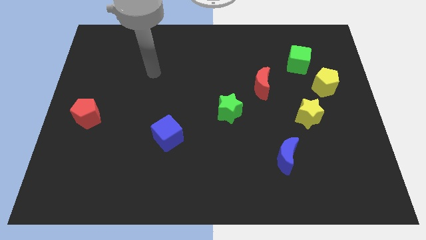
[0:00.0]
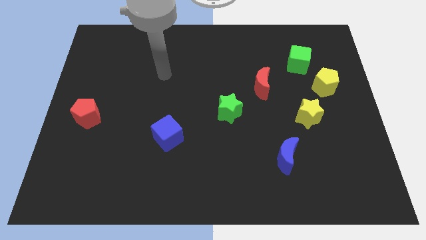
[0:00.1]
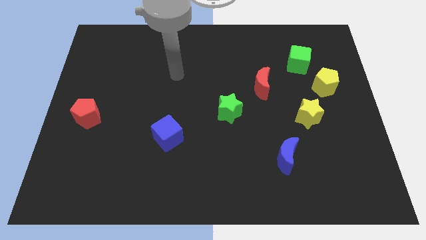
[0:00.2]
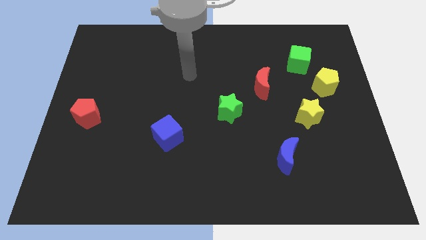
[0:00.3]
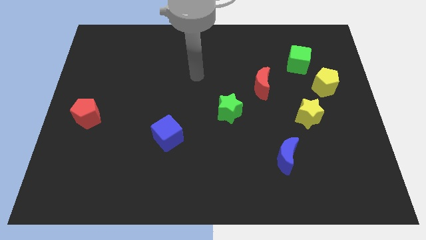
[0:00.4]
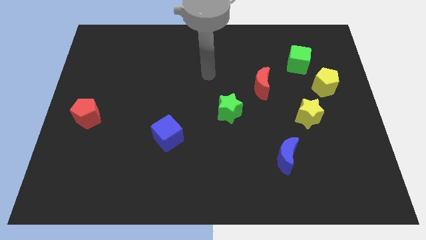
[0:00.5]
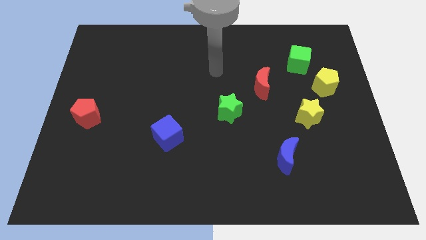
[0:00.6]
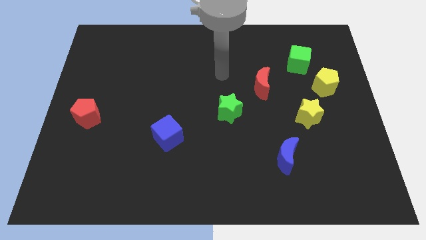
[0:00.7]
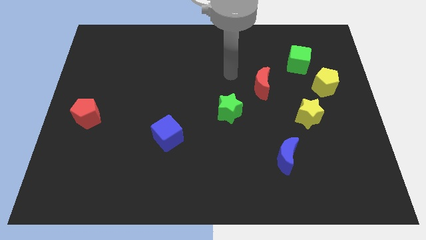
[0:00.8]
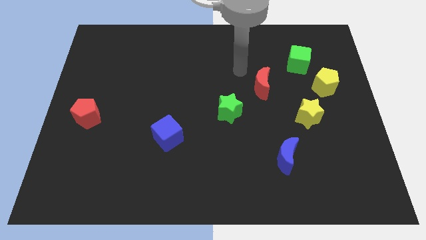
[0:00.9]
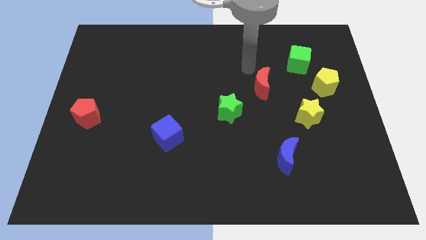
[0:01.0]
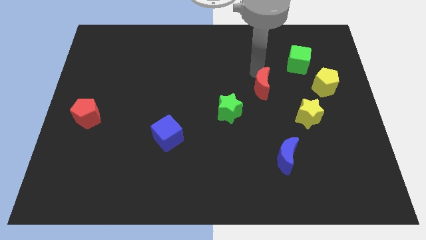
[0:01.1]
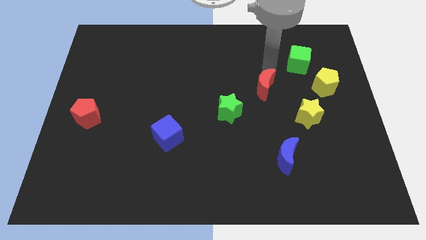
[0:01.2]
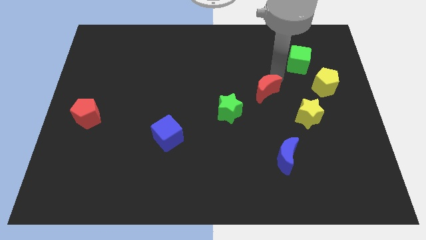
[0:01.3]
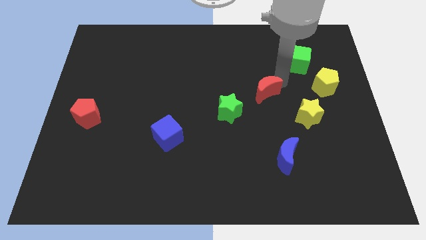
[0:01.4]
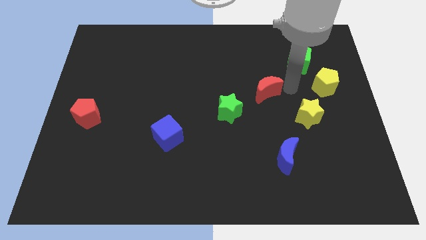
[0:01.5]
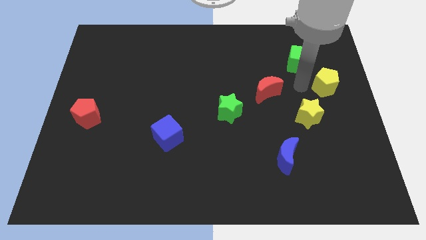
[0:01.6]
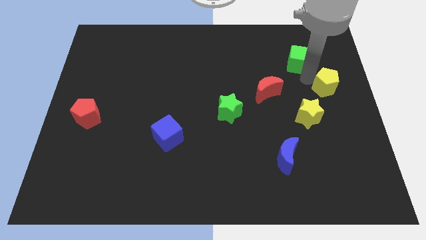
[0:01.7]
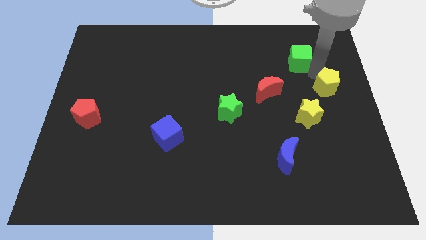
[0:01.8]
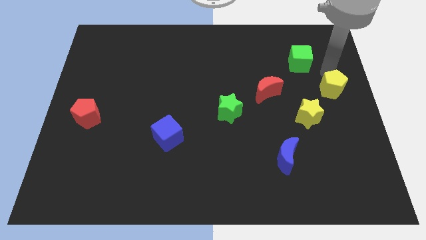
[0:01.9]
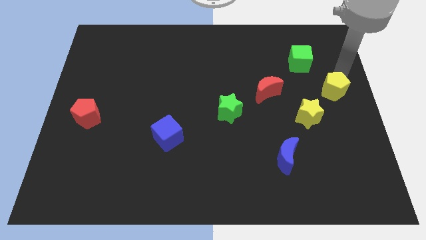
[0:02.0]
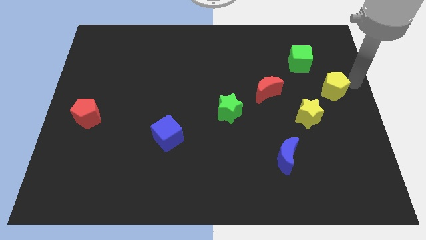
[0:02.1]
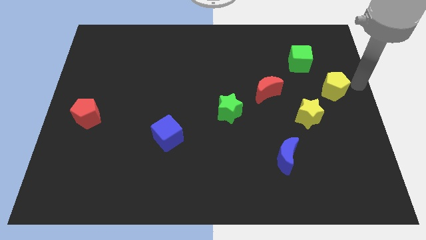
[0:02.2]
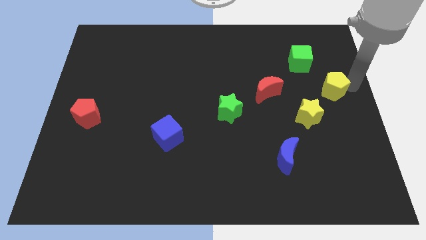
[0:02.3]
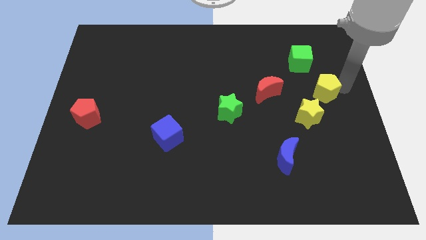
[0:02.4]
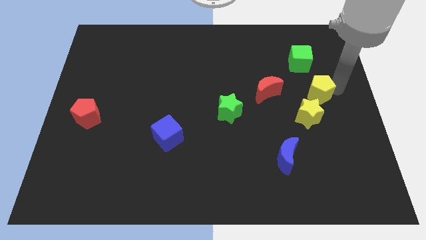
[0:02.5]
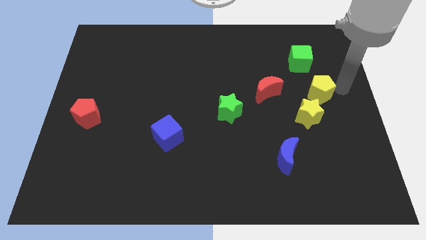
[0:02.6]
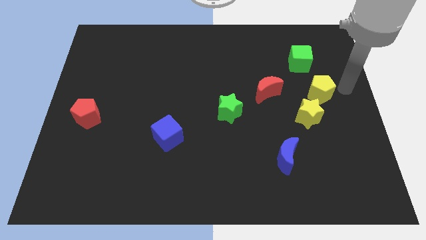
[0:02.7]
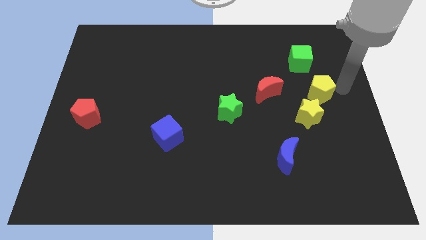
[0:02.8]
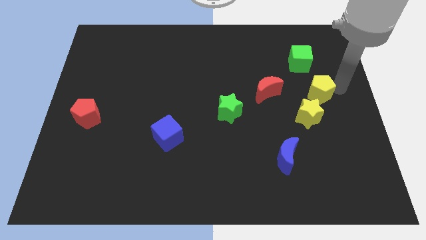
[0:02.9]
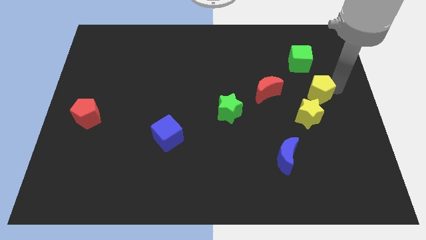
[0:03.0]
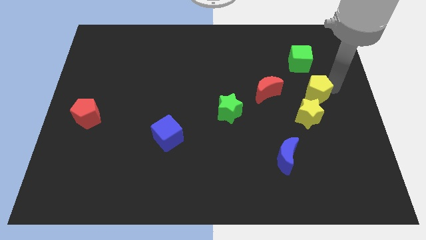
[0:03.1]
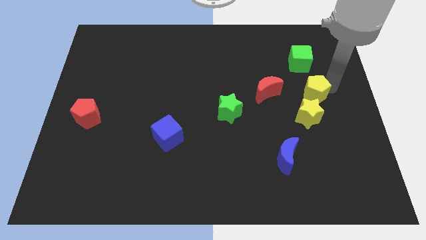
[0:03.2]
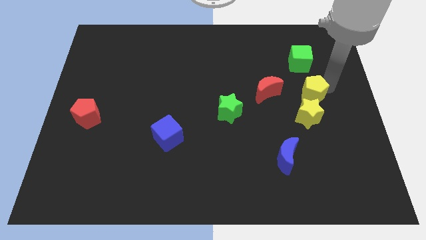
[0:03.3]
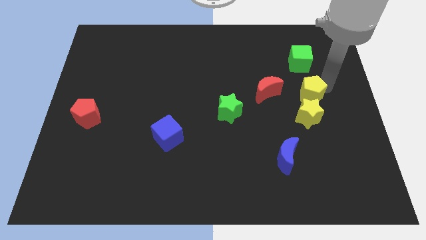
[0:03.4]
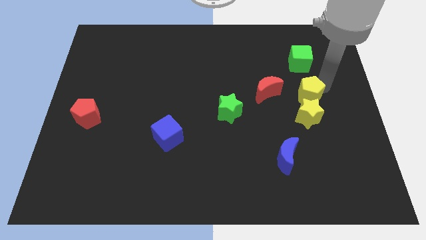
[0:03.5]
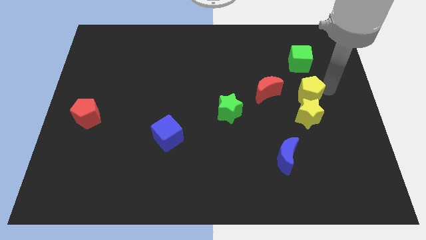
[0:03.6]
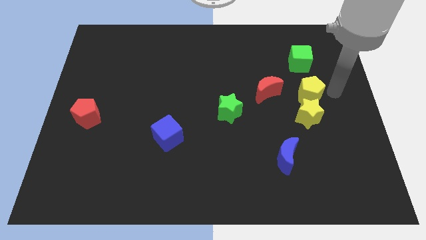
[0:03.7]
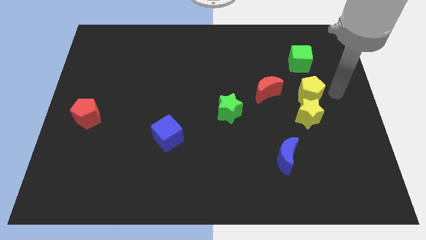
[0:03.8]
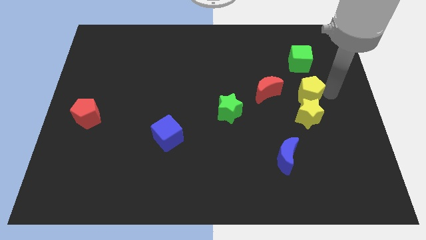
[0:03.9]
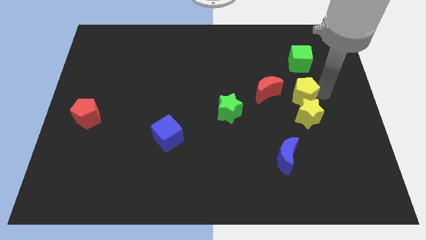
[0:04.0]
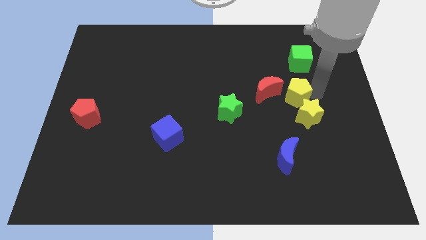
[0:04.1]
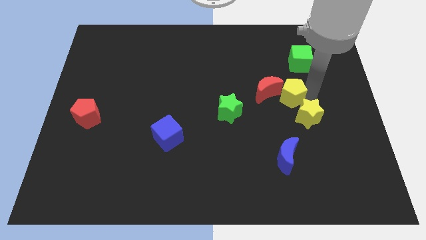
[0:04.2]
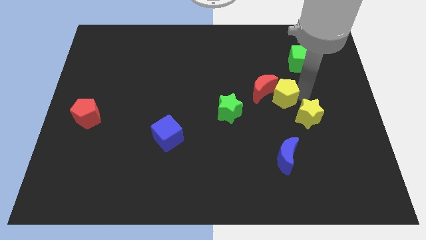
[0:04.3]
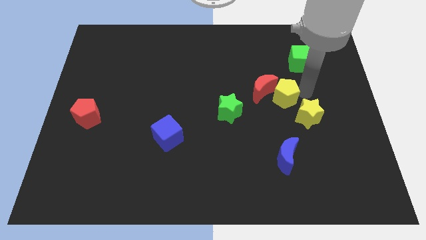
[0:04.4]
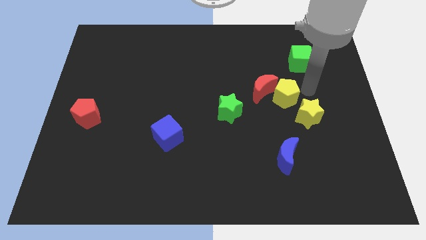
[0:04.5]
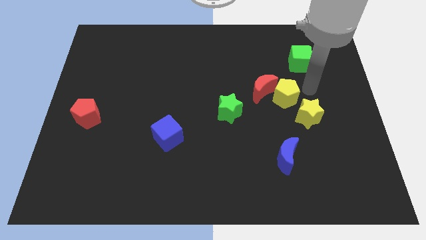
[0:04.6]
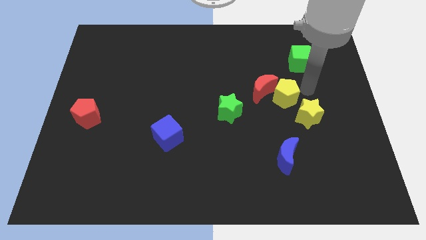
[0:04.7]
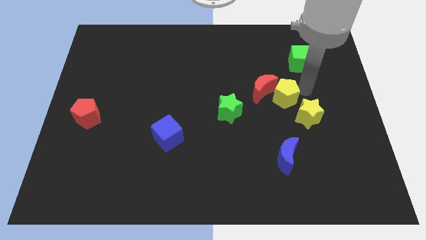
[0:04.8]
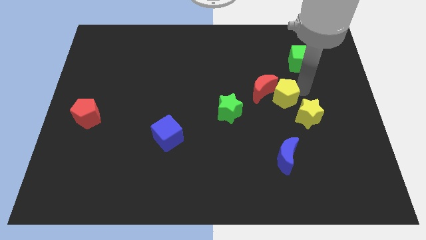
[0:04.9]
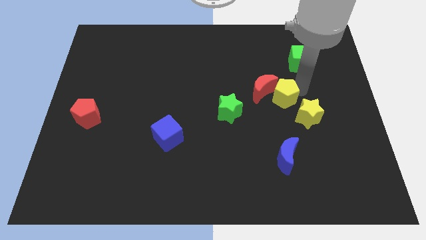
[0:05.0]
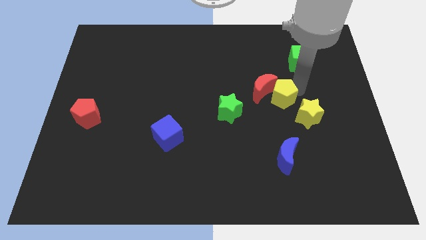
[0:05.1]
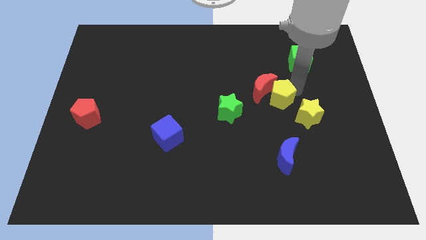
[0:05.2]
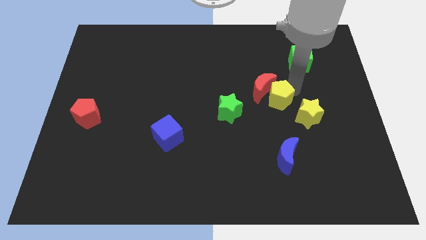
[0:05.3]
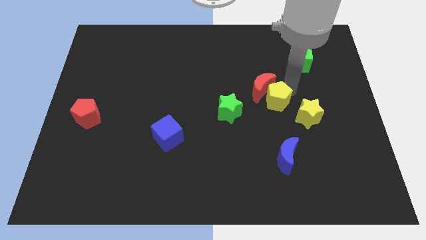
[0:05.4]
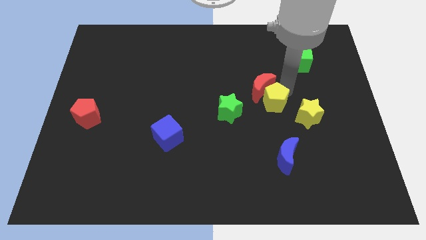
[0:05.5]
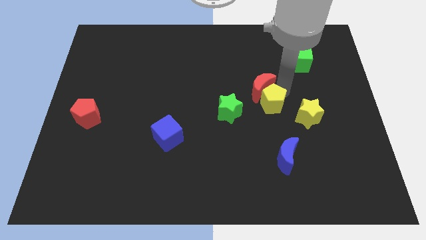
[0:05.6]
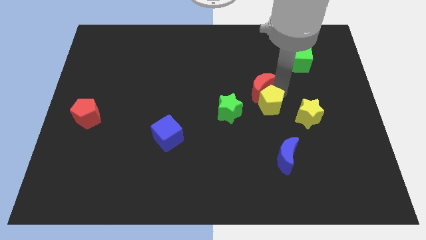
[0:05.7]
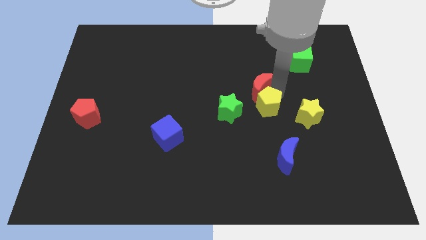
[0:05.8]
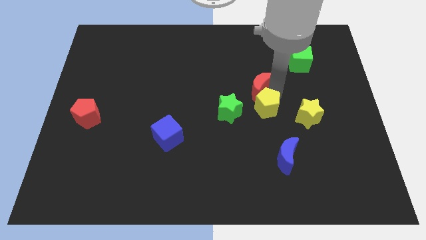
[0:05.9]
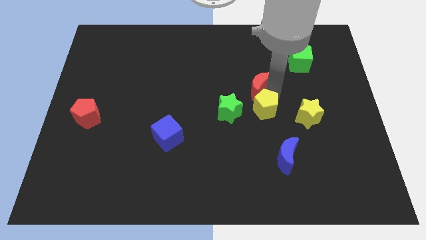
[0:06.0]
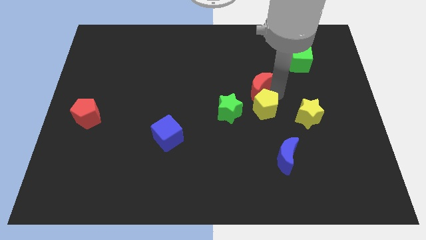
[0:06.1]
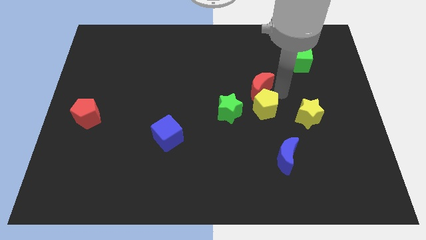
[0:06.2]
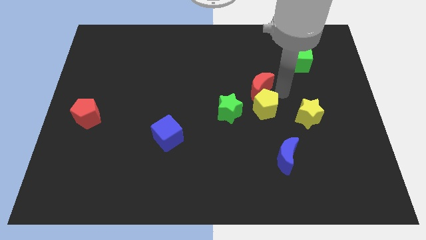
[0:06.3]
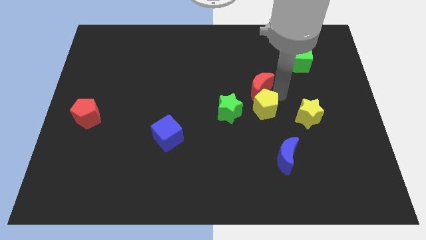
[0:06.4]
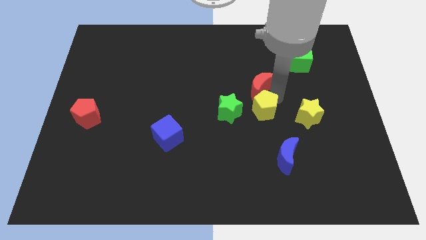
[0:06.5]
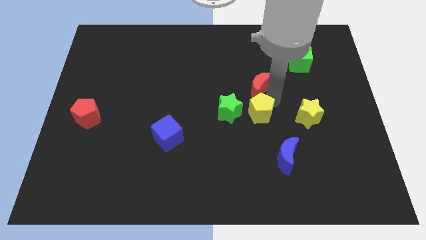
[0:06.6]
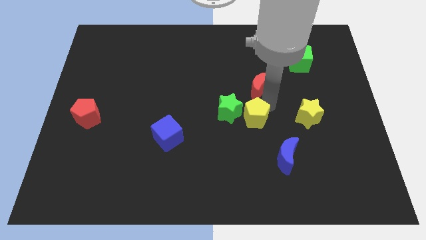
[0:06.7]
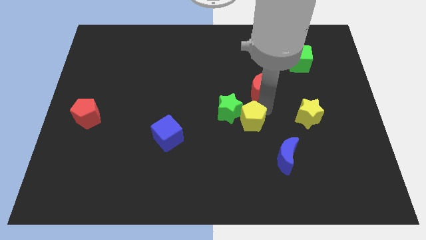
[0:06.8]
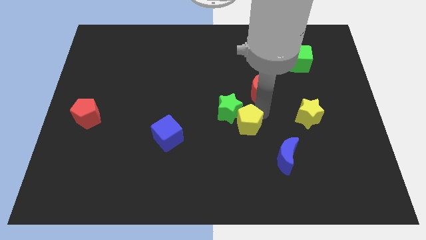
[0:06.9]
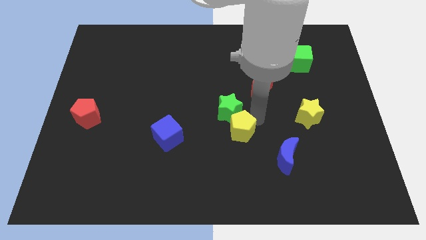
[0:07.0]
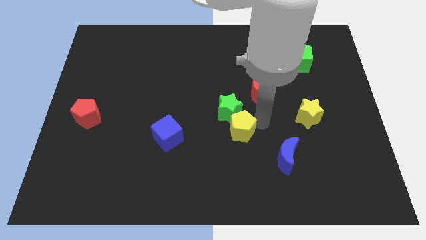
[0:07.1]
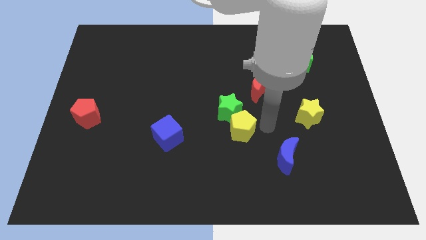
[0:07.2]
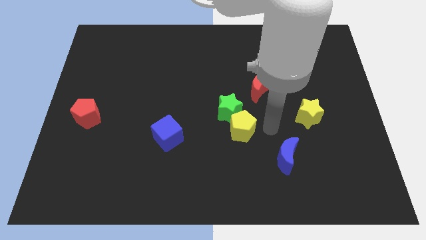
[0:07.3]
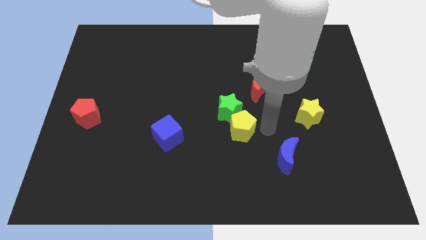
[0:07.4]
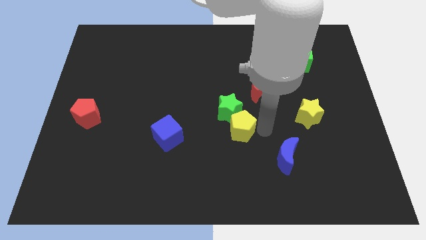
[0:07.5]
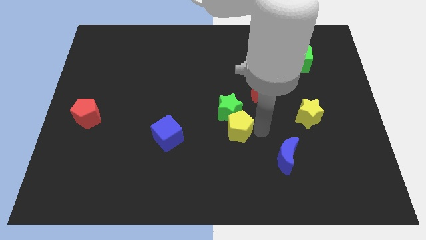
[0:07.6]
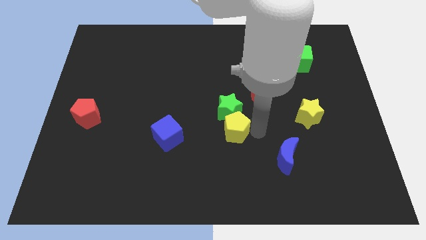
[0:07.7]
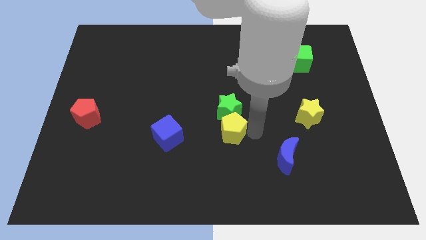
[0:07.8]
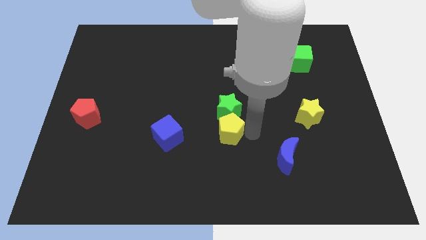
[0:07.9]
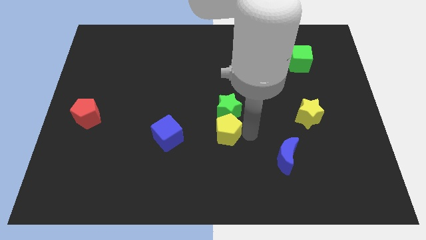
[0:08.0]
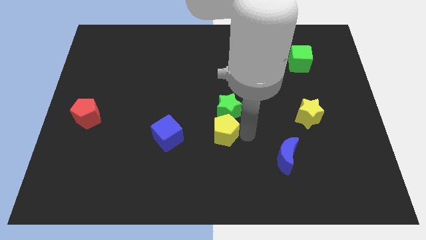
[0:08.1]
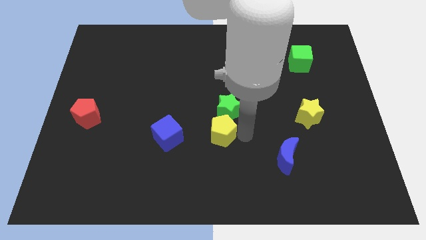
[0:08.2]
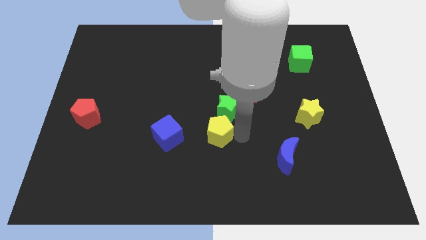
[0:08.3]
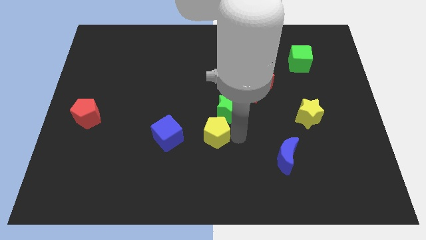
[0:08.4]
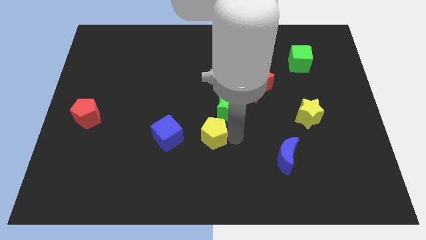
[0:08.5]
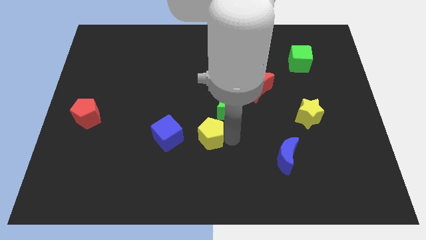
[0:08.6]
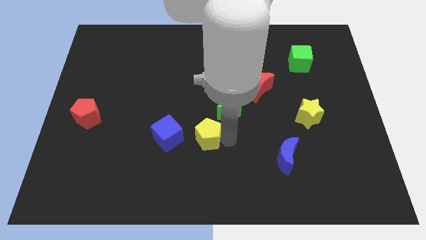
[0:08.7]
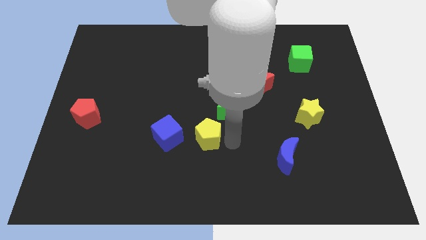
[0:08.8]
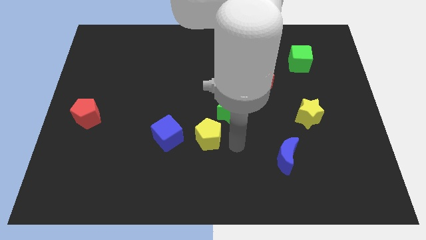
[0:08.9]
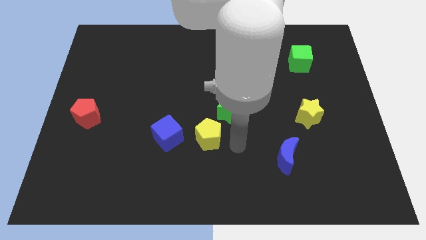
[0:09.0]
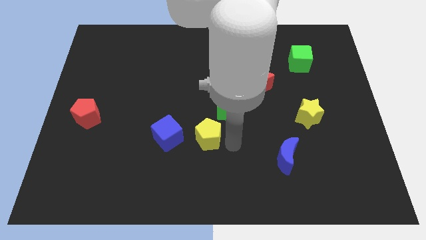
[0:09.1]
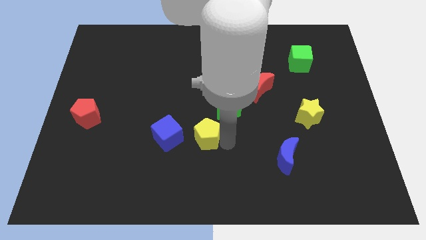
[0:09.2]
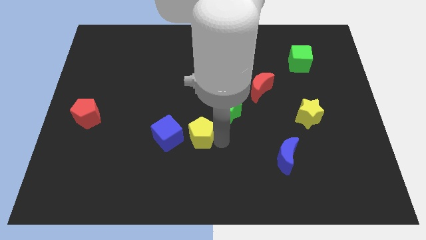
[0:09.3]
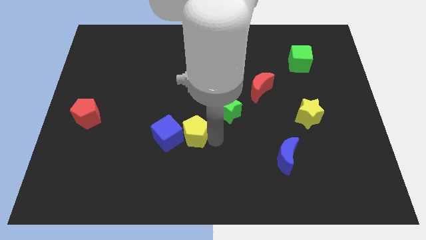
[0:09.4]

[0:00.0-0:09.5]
put the yellow pentagon towards the blue cube
